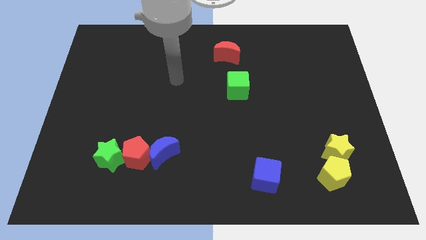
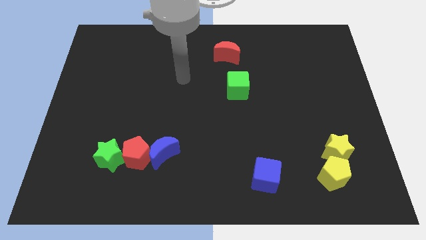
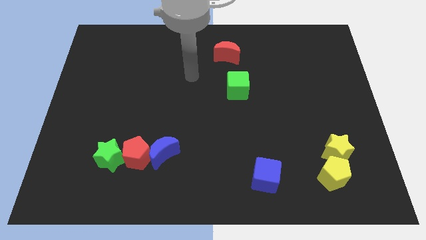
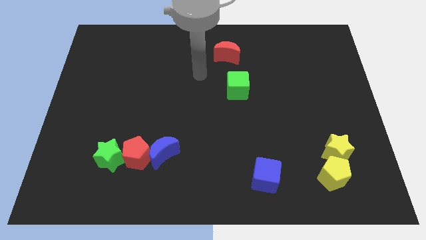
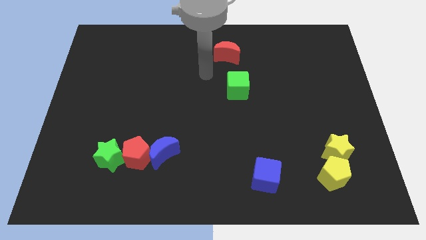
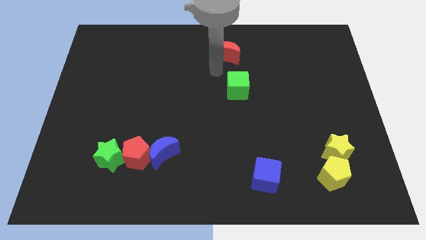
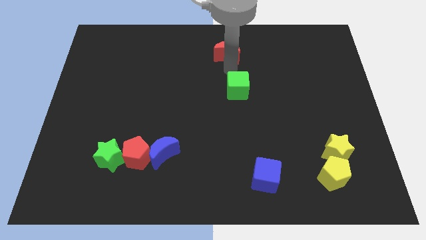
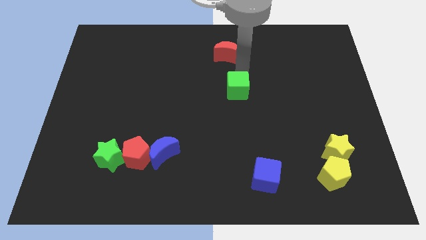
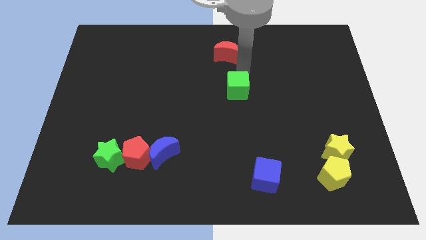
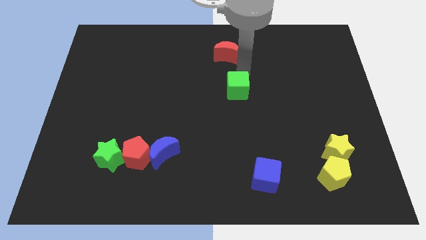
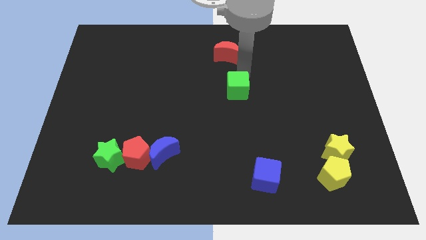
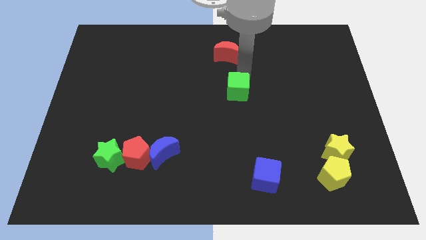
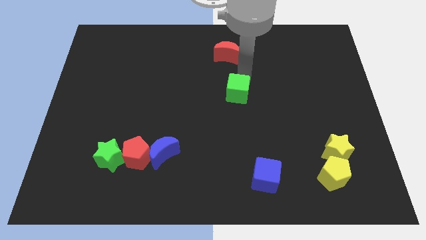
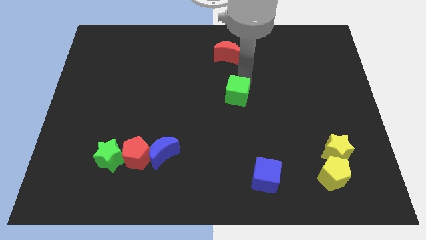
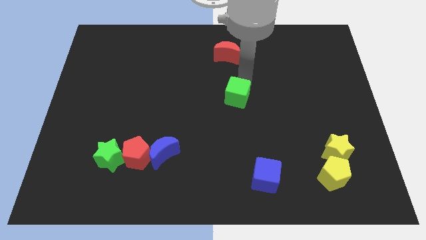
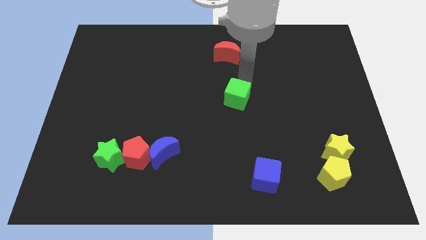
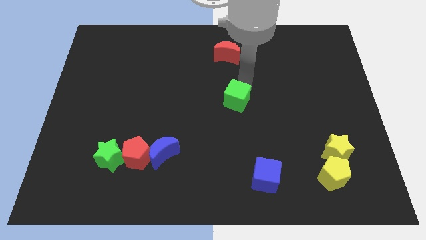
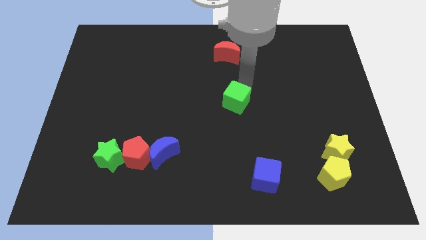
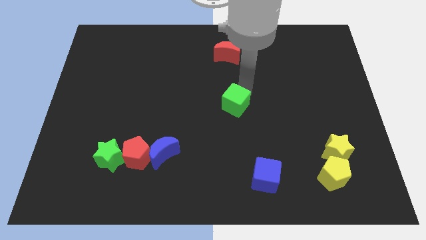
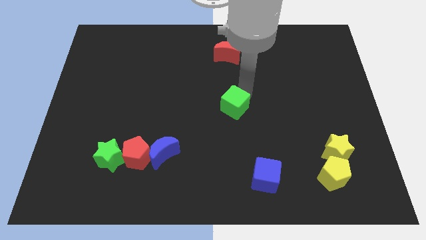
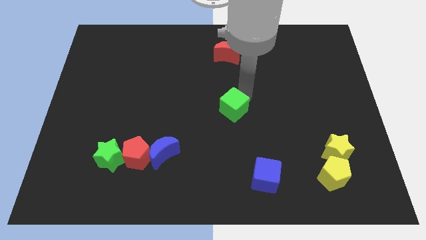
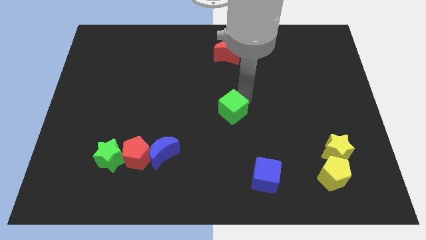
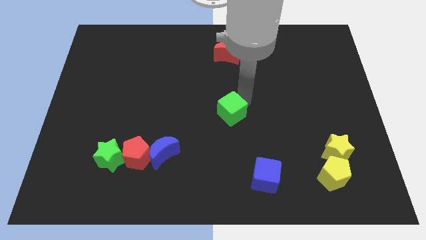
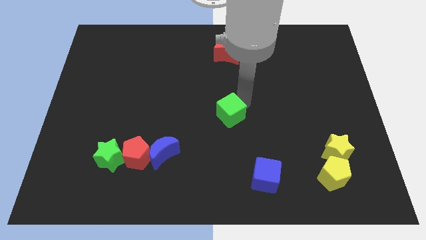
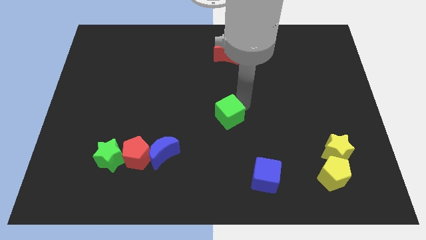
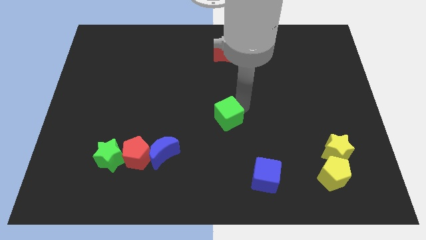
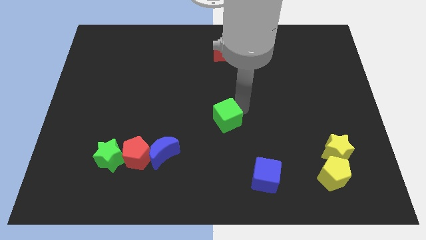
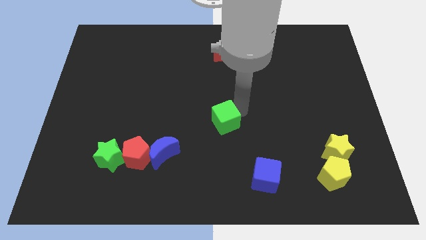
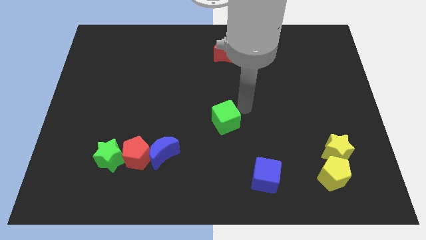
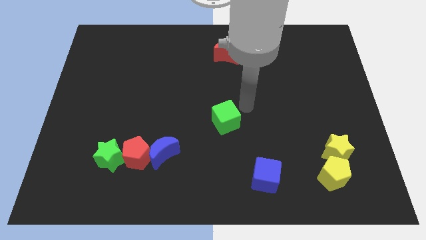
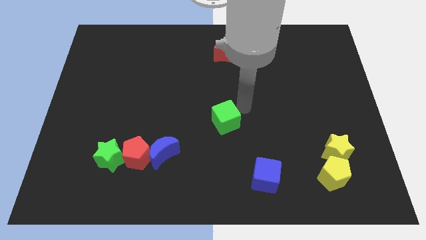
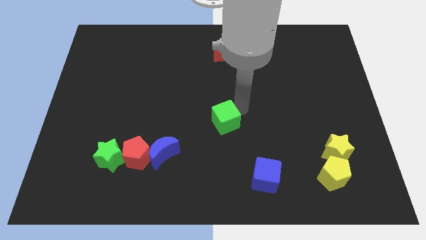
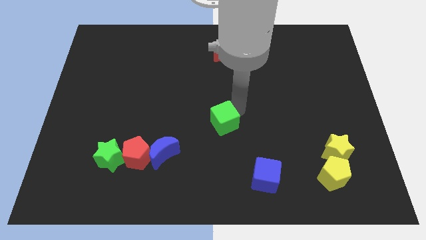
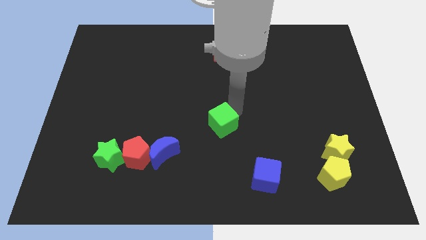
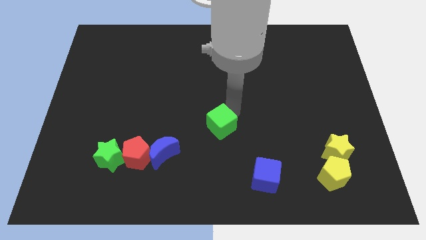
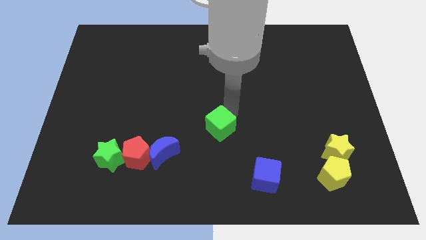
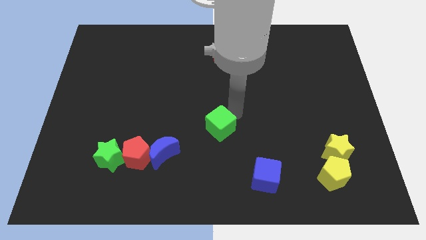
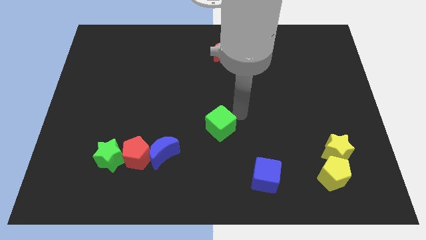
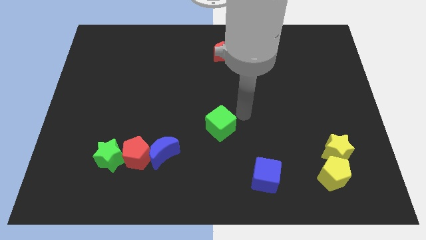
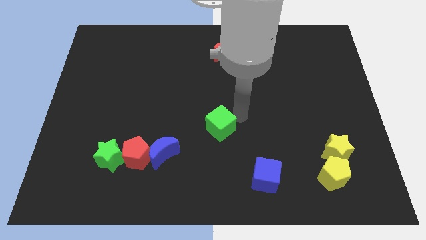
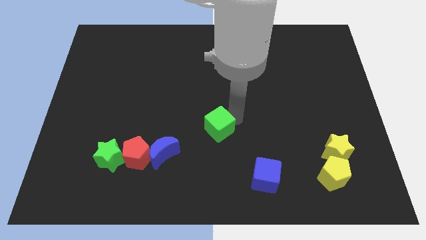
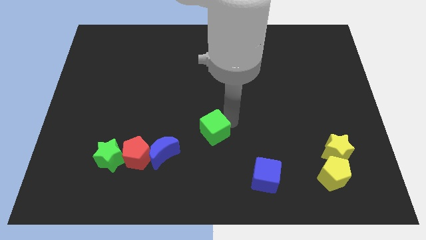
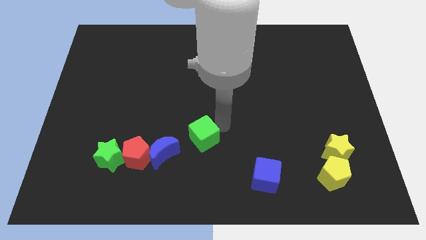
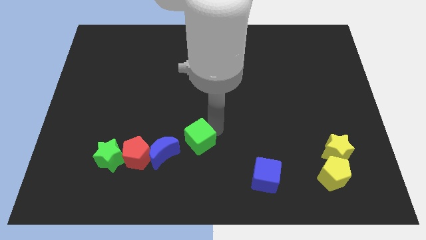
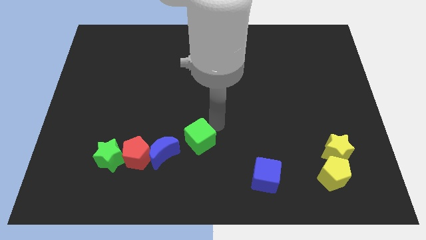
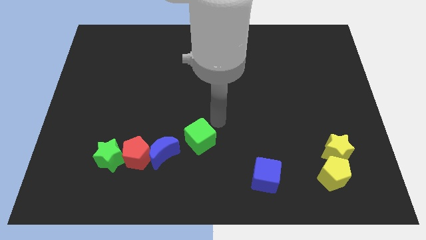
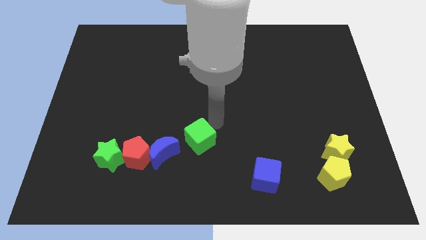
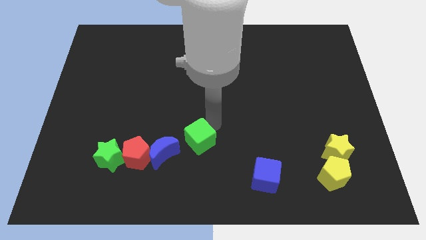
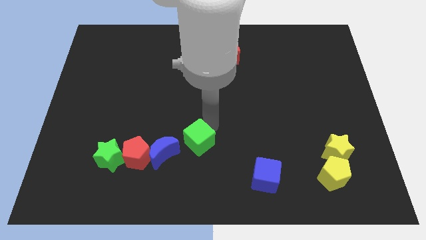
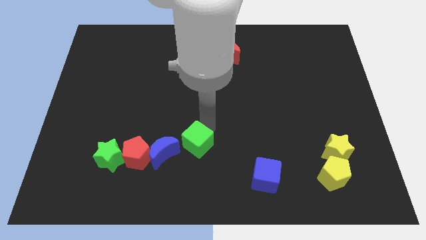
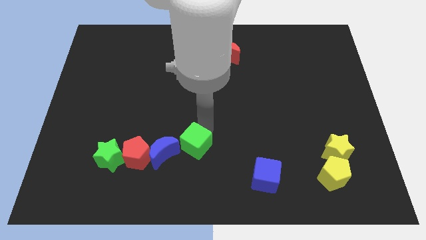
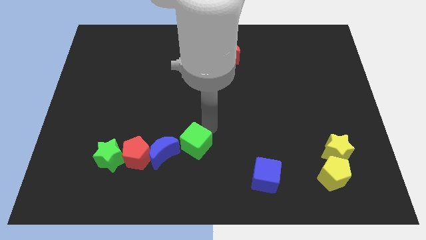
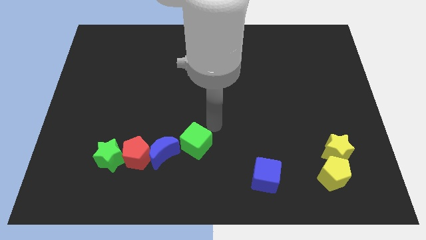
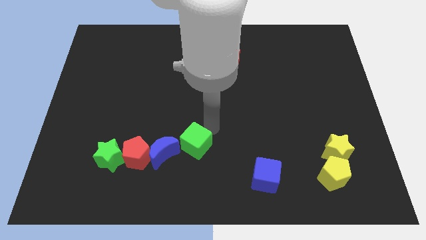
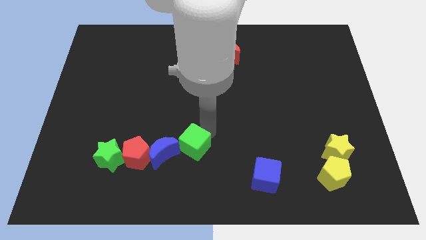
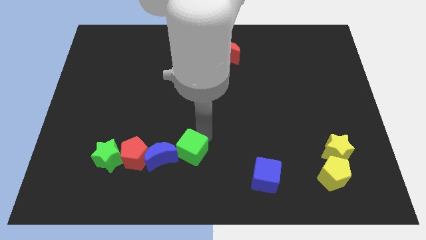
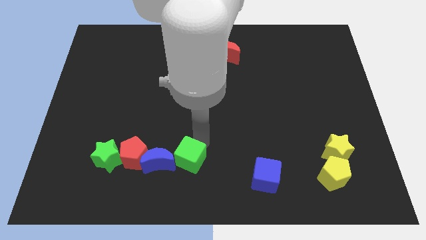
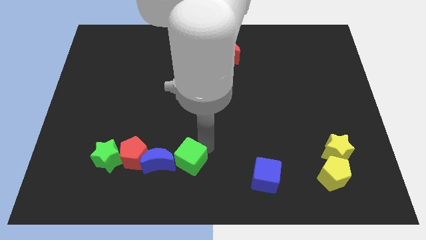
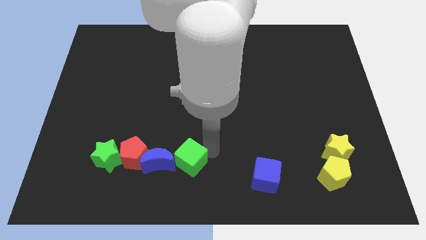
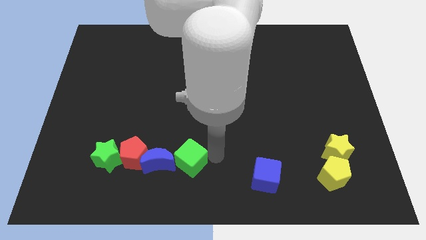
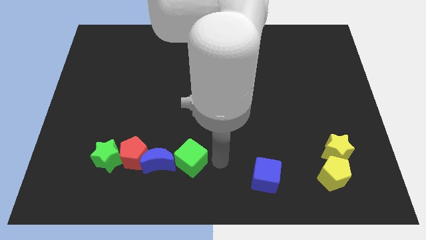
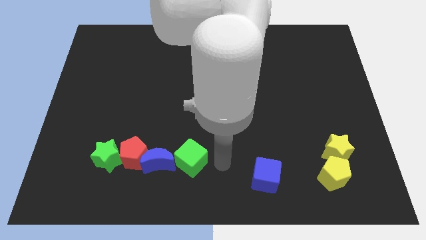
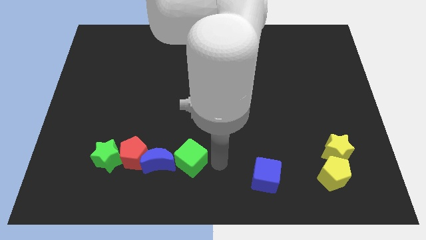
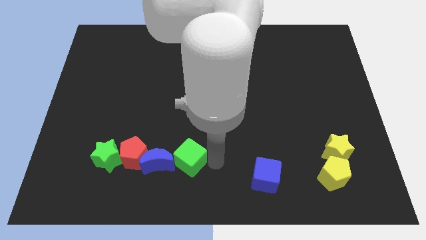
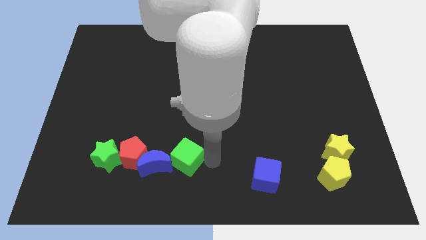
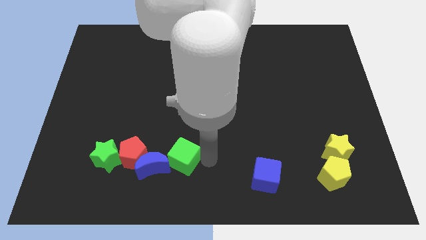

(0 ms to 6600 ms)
push the green cube to the right of the green star

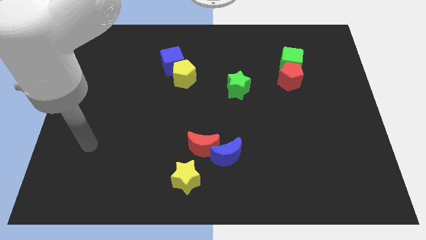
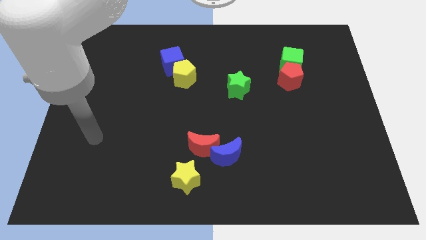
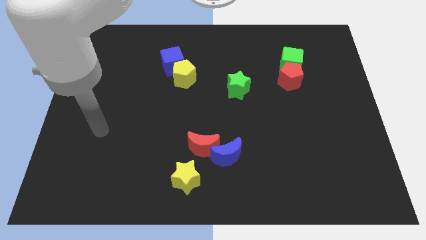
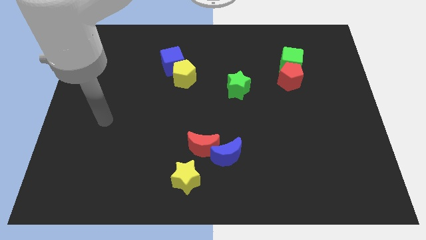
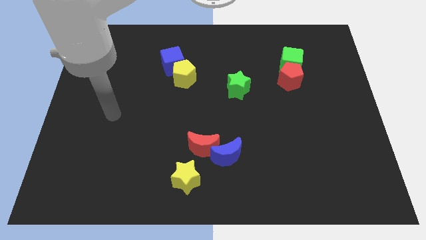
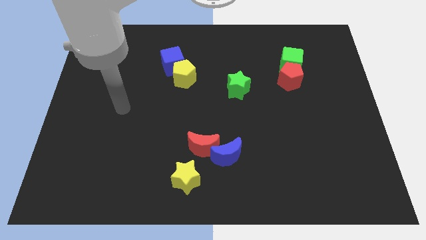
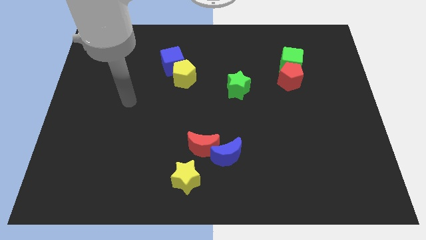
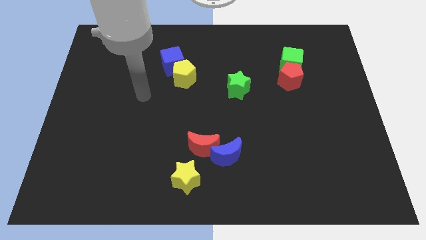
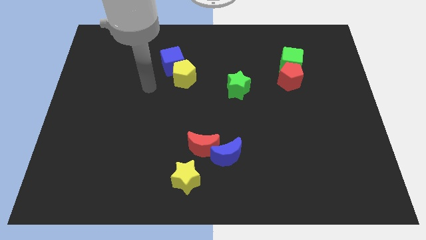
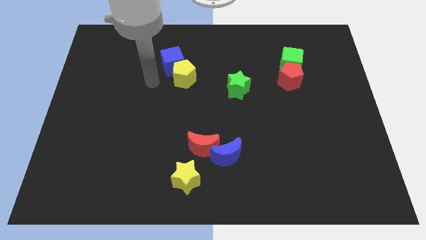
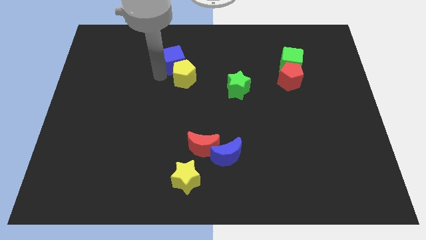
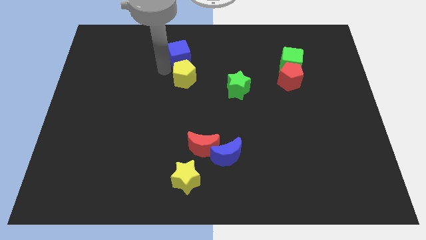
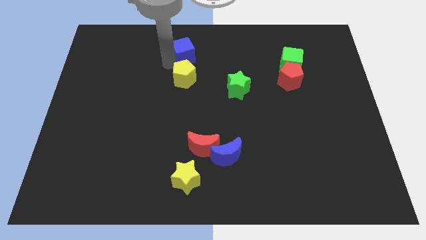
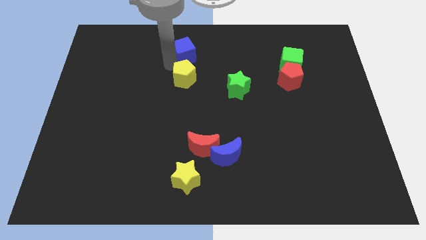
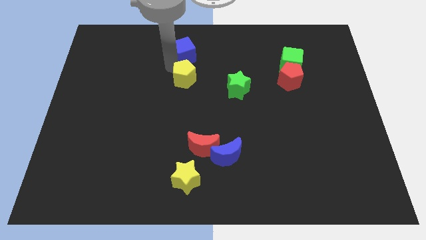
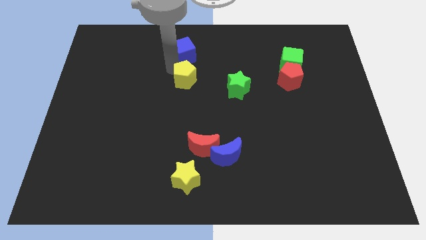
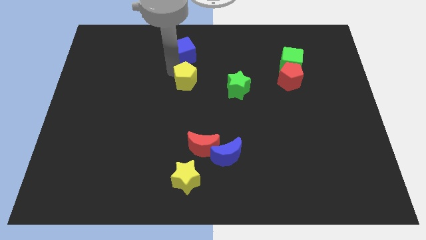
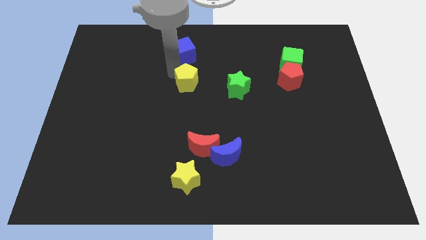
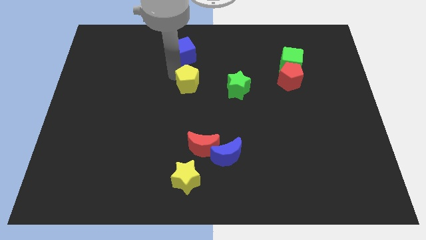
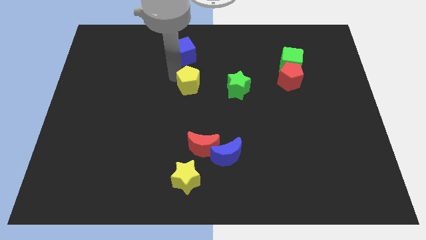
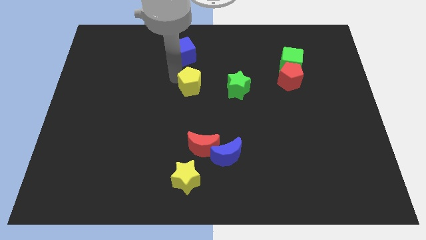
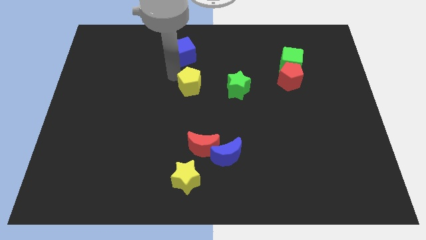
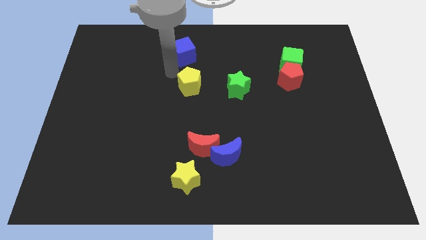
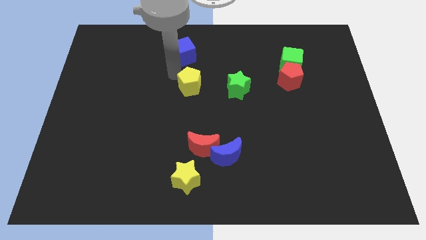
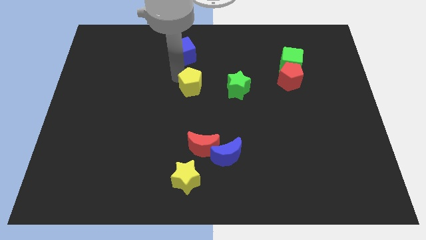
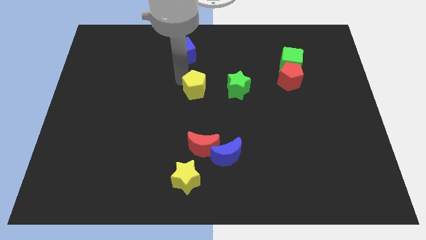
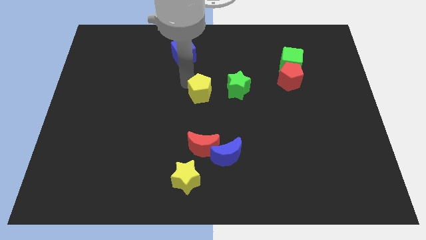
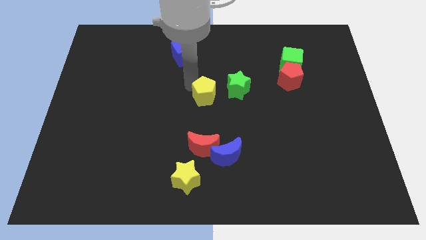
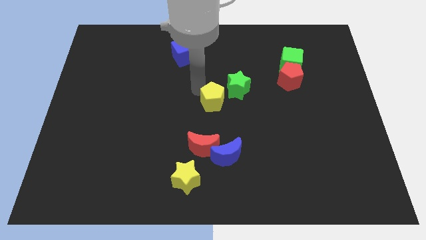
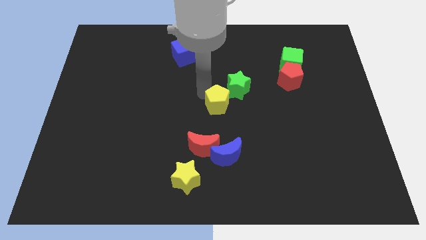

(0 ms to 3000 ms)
slide the yellow pentagon to the top side of the blue moon
